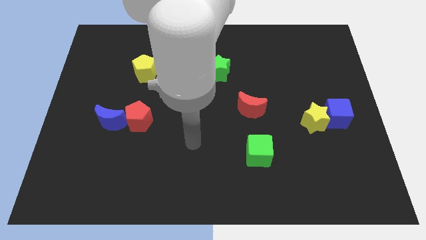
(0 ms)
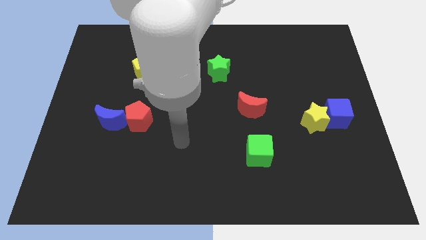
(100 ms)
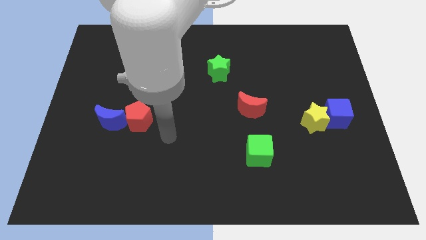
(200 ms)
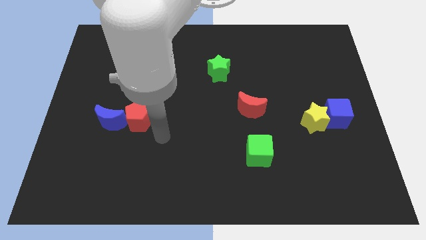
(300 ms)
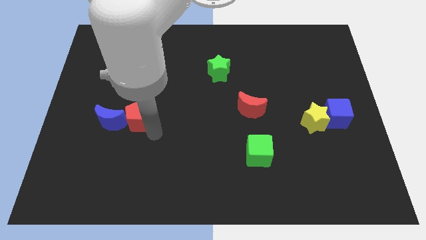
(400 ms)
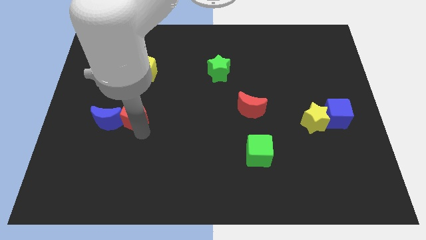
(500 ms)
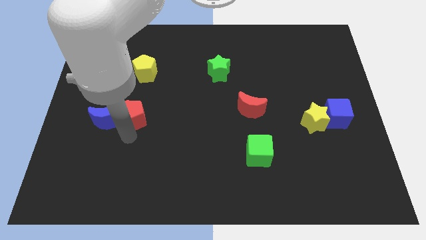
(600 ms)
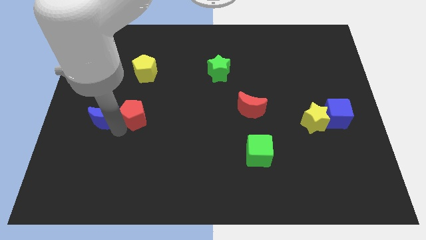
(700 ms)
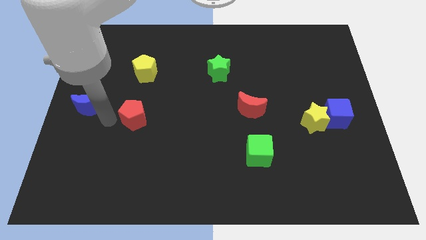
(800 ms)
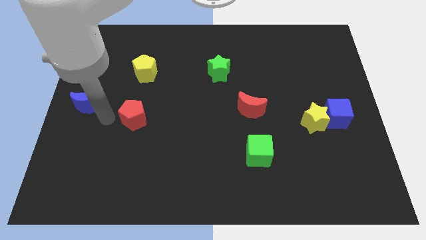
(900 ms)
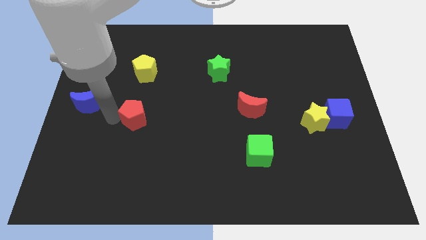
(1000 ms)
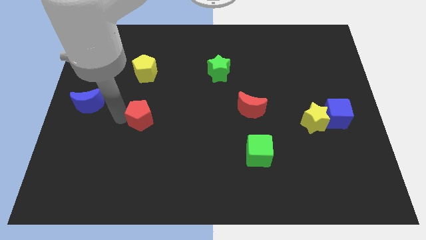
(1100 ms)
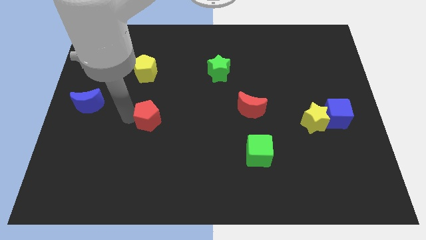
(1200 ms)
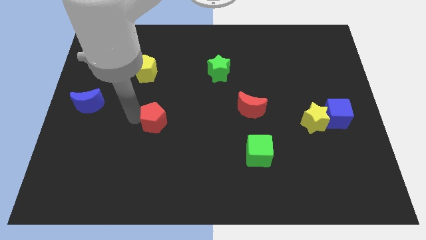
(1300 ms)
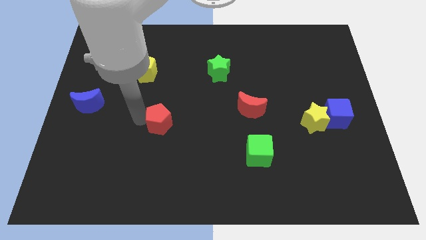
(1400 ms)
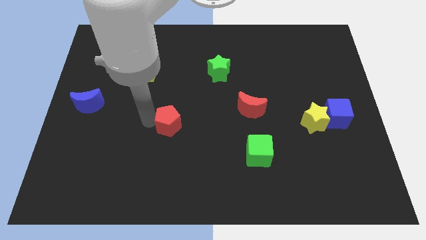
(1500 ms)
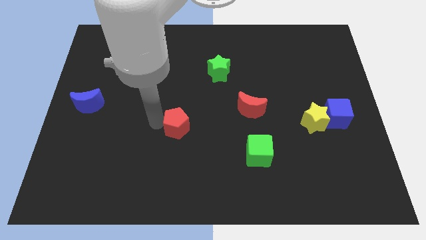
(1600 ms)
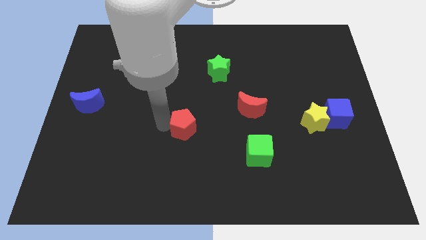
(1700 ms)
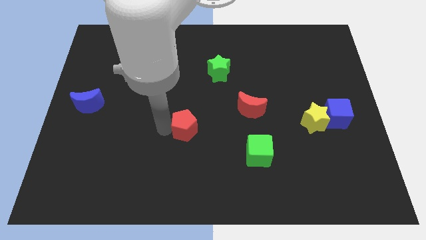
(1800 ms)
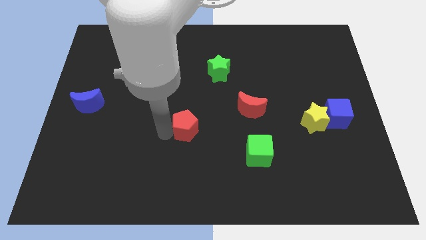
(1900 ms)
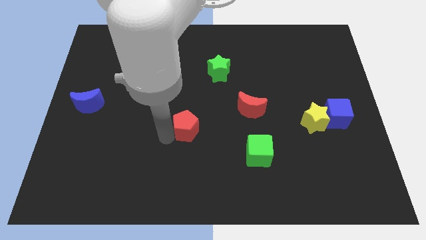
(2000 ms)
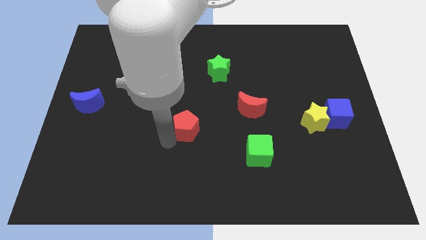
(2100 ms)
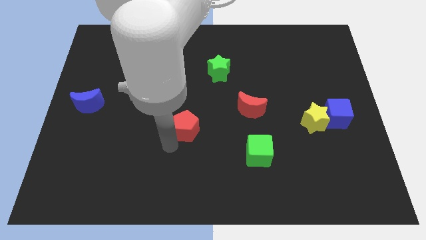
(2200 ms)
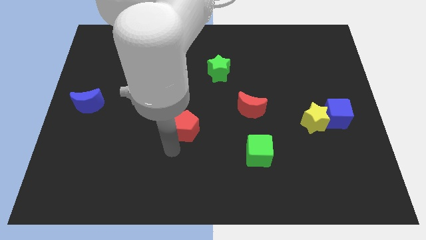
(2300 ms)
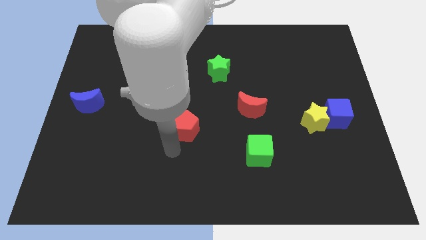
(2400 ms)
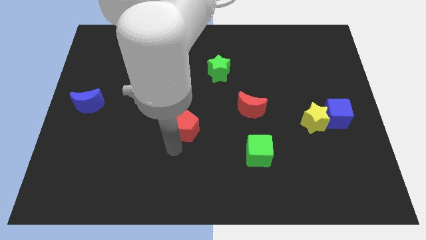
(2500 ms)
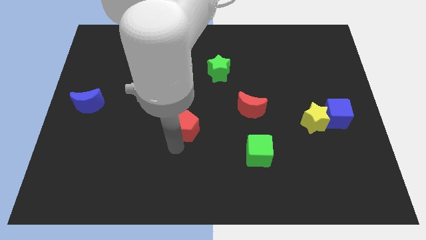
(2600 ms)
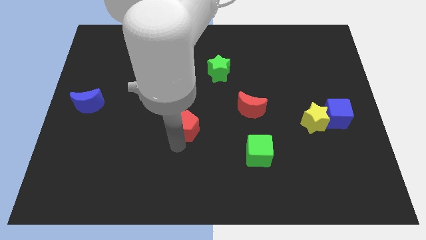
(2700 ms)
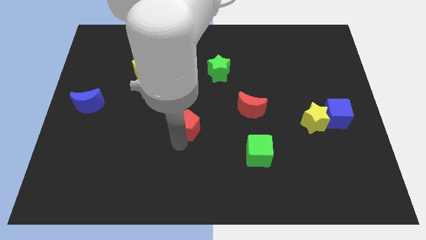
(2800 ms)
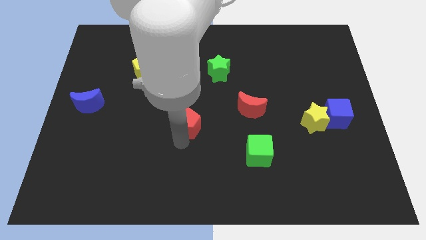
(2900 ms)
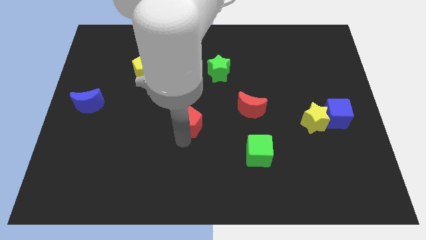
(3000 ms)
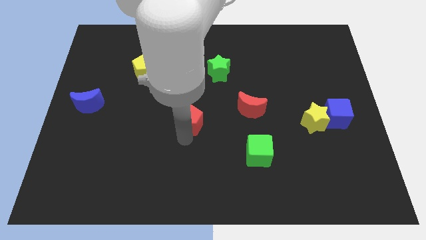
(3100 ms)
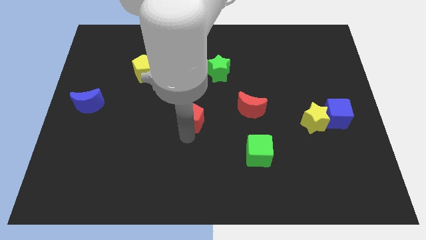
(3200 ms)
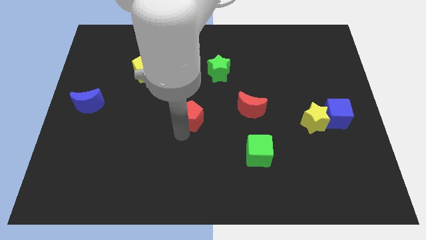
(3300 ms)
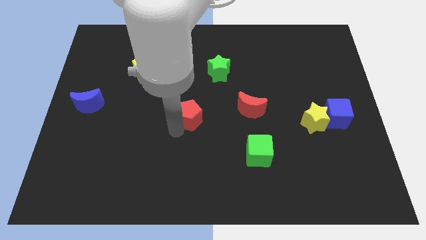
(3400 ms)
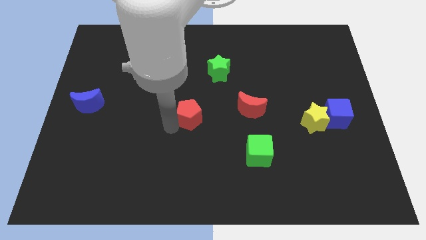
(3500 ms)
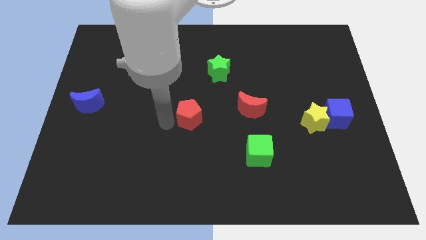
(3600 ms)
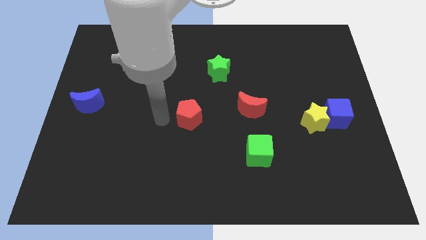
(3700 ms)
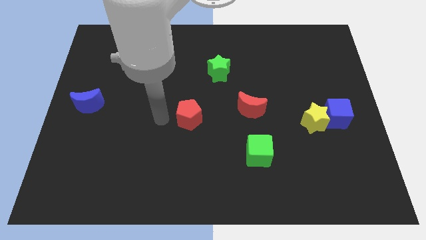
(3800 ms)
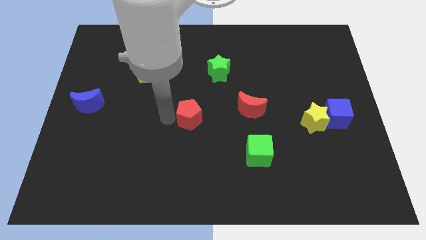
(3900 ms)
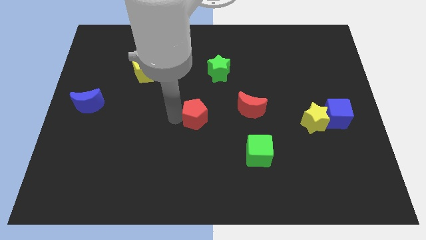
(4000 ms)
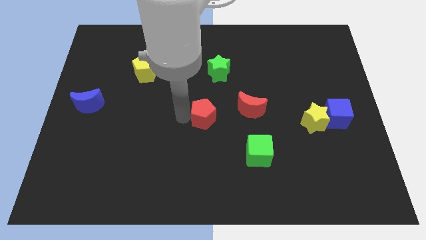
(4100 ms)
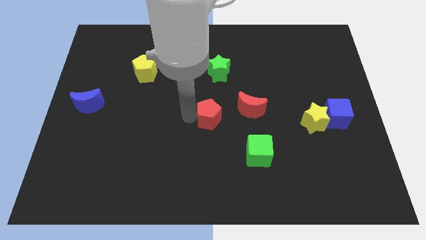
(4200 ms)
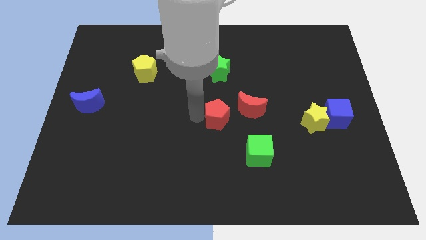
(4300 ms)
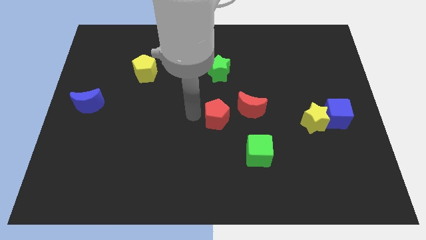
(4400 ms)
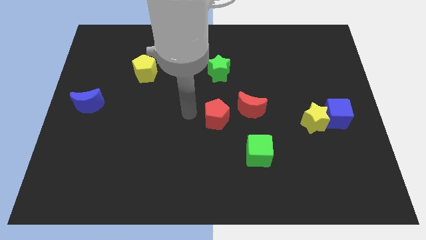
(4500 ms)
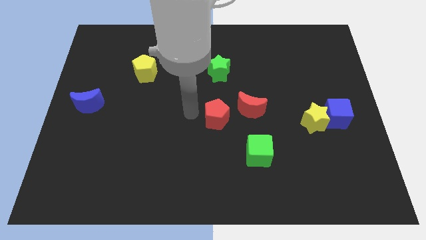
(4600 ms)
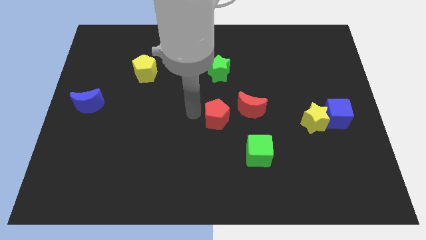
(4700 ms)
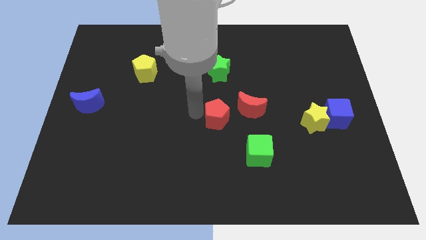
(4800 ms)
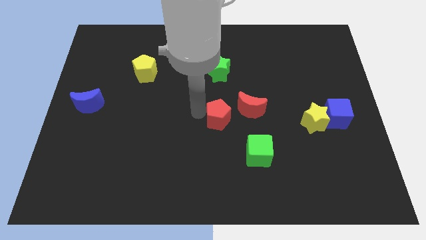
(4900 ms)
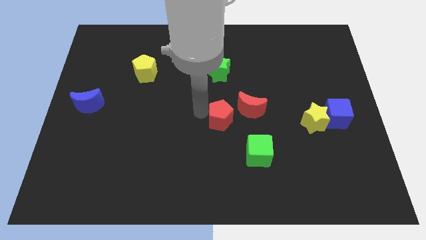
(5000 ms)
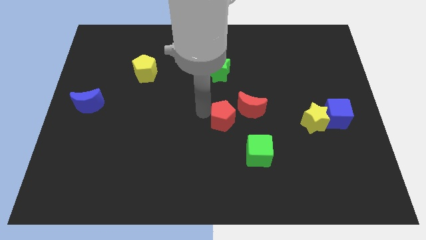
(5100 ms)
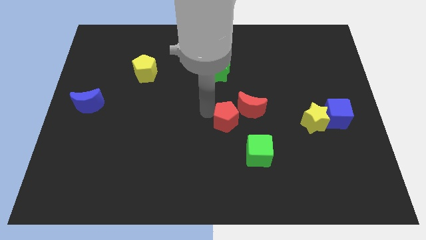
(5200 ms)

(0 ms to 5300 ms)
slide the red pentagon to the right

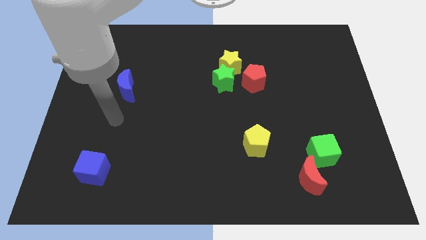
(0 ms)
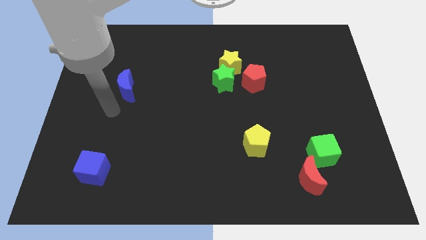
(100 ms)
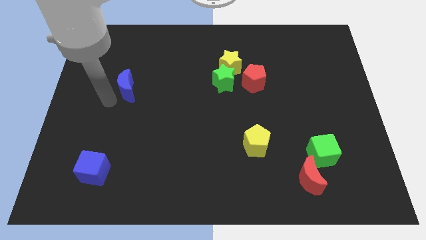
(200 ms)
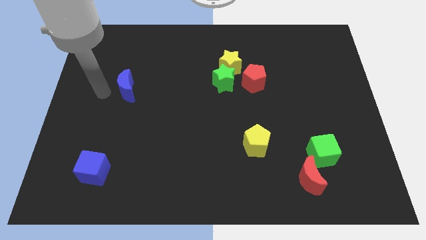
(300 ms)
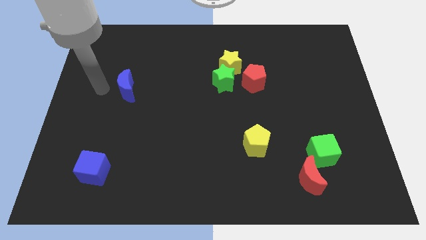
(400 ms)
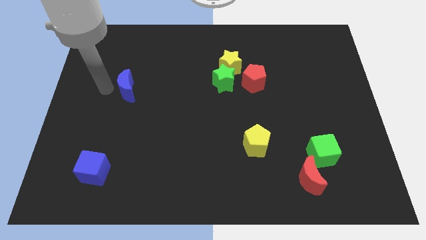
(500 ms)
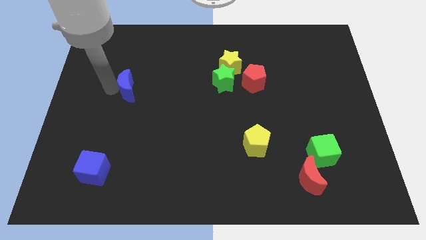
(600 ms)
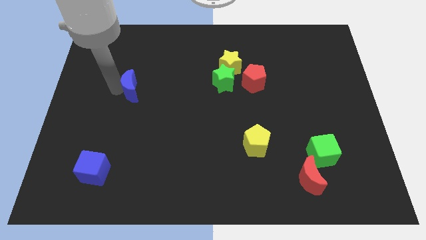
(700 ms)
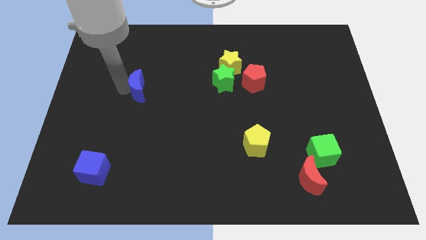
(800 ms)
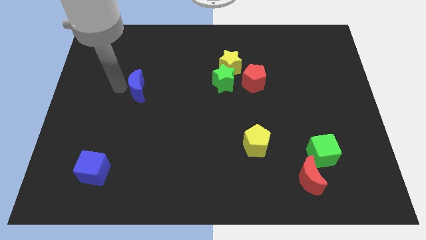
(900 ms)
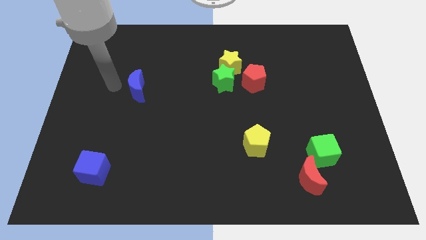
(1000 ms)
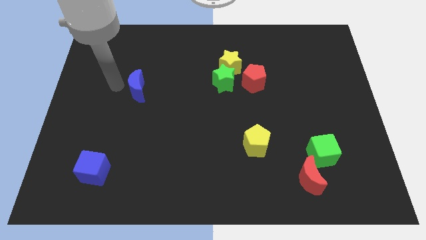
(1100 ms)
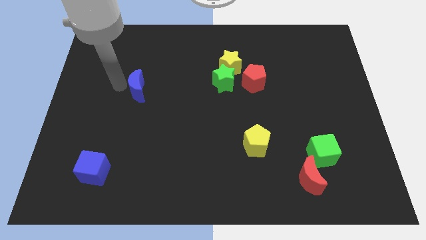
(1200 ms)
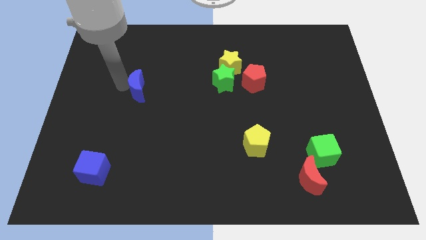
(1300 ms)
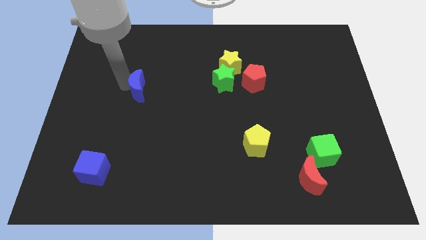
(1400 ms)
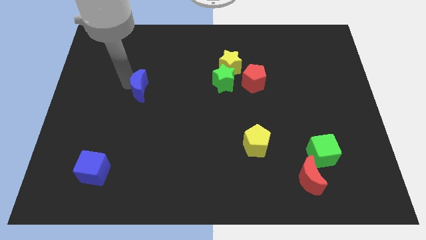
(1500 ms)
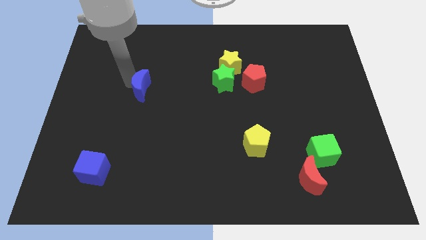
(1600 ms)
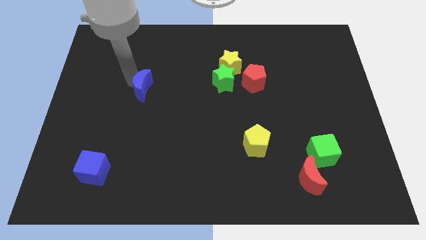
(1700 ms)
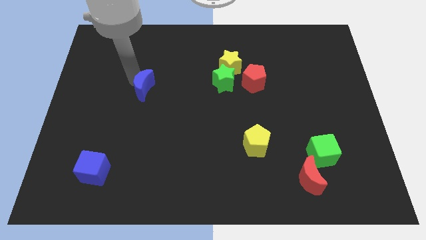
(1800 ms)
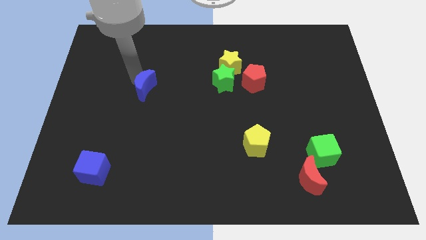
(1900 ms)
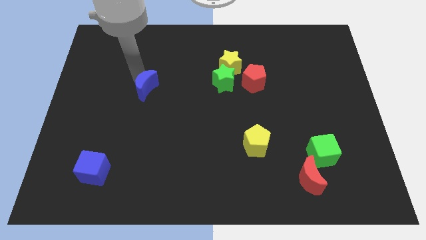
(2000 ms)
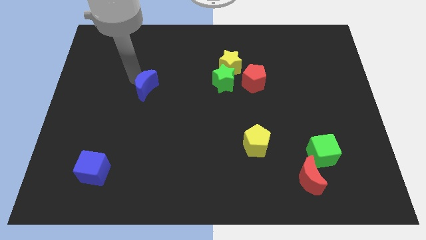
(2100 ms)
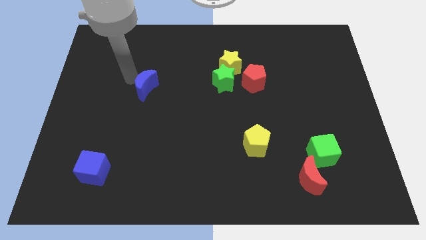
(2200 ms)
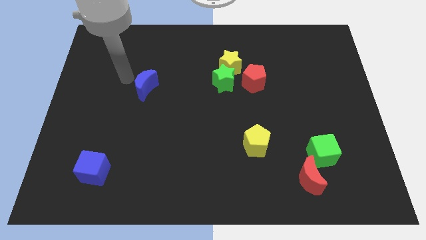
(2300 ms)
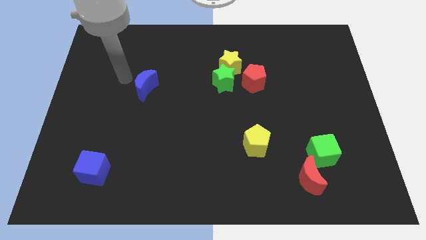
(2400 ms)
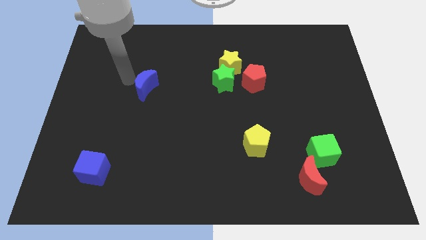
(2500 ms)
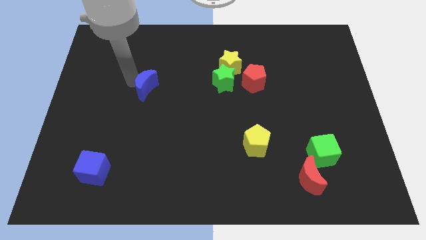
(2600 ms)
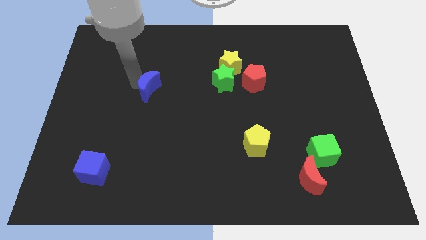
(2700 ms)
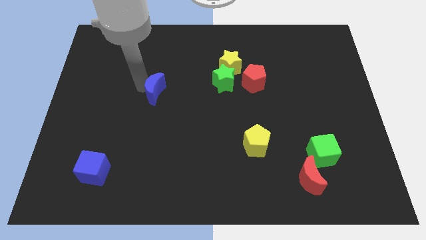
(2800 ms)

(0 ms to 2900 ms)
slightly slide the blue moon right
